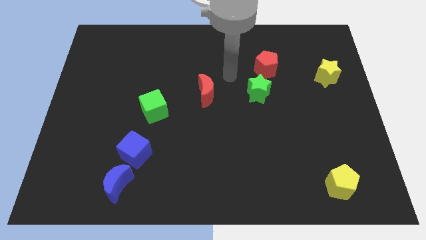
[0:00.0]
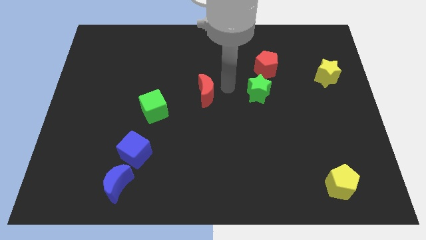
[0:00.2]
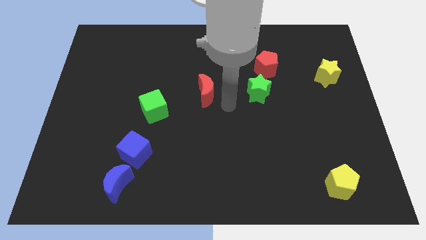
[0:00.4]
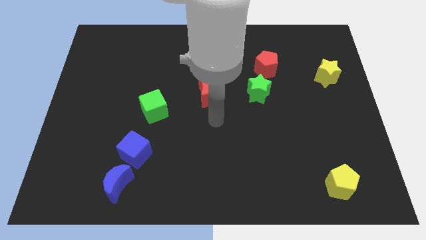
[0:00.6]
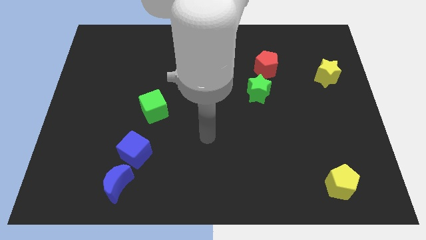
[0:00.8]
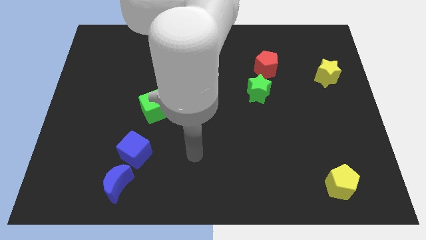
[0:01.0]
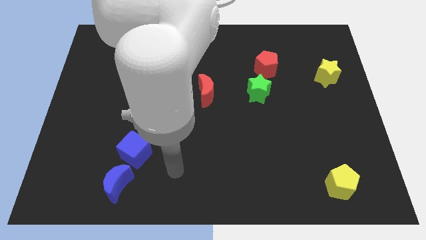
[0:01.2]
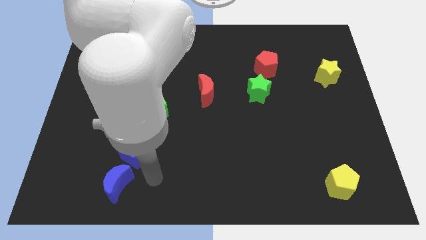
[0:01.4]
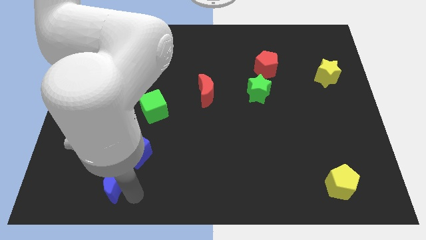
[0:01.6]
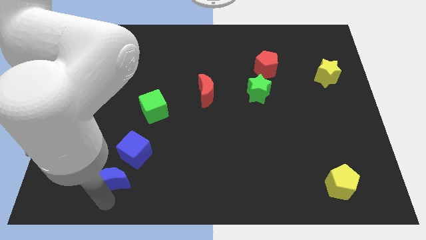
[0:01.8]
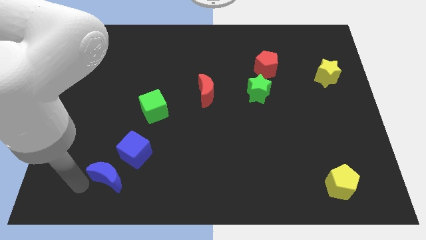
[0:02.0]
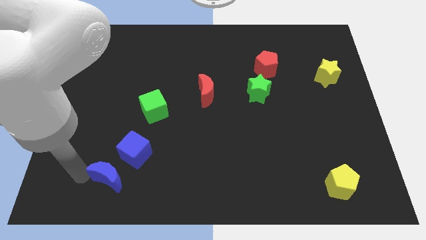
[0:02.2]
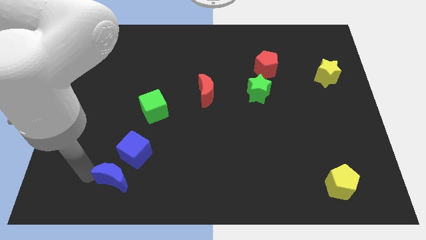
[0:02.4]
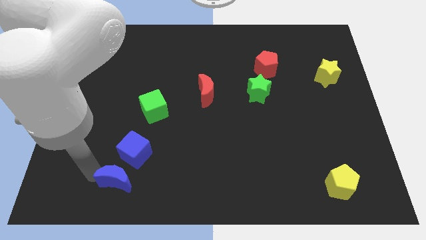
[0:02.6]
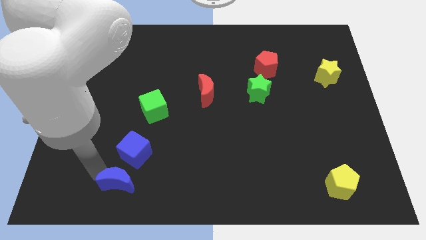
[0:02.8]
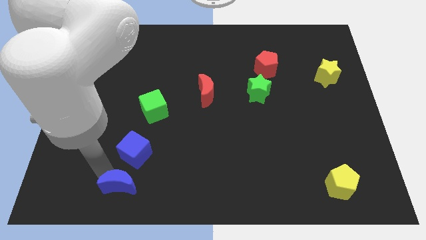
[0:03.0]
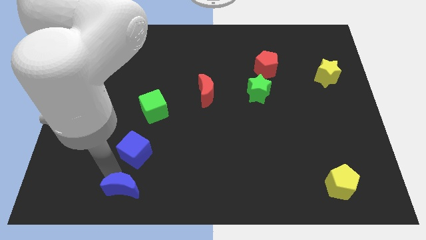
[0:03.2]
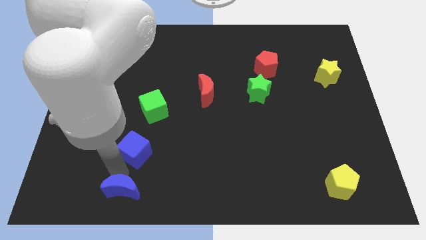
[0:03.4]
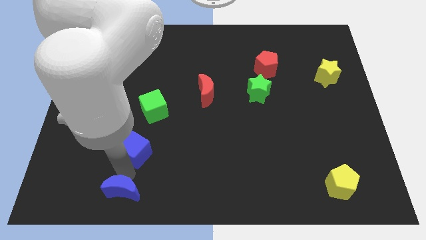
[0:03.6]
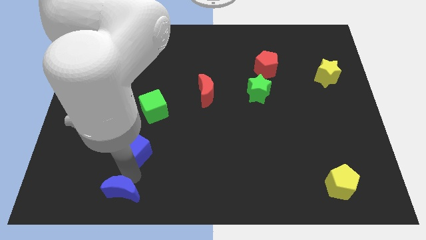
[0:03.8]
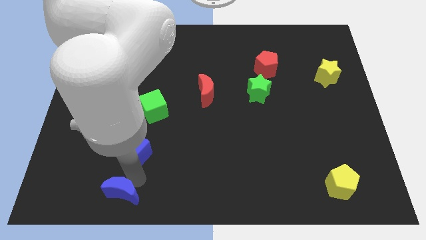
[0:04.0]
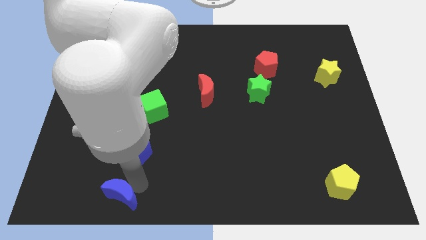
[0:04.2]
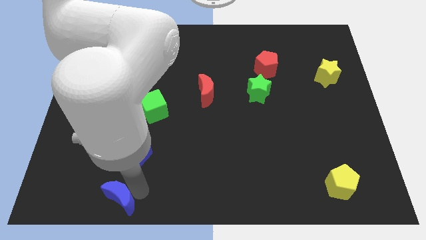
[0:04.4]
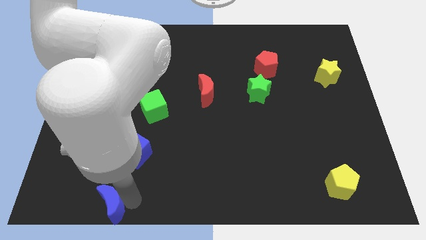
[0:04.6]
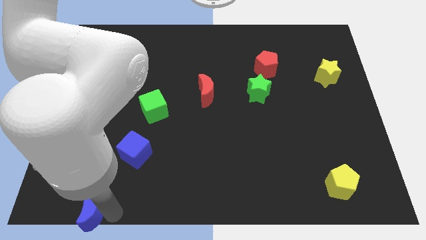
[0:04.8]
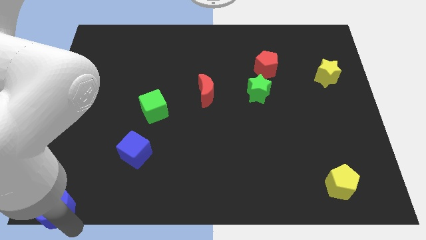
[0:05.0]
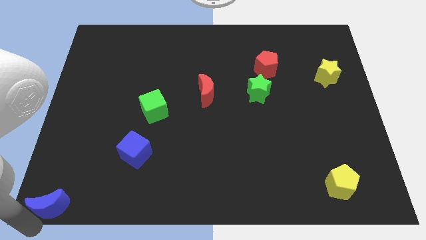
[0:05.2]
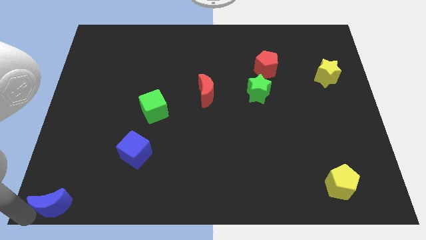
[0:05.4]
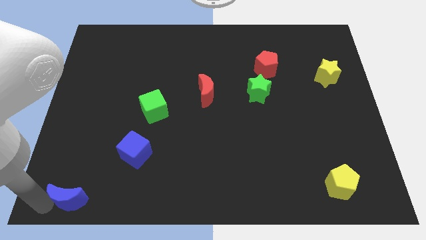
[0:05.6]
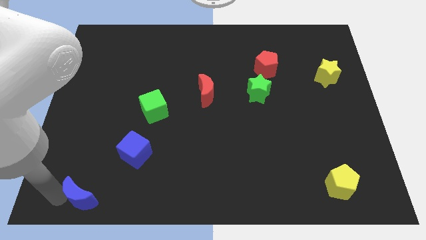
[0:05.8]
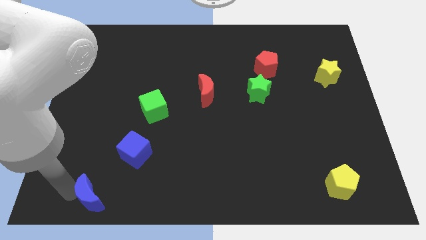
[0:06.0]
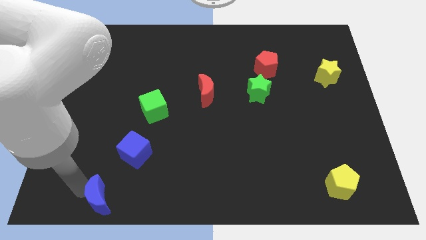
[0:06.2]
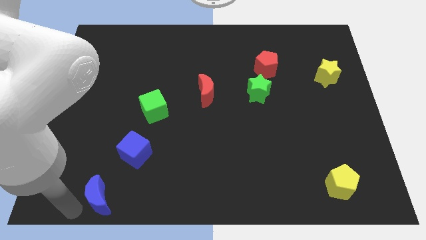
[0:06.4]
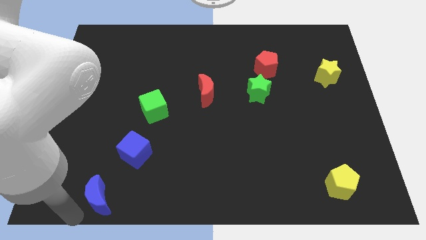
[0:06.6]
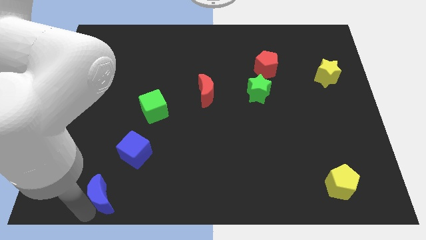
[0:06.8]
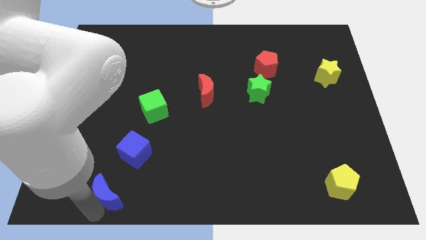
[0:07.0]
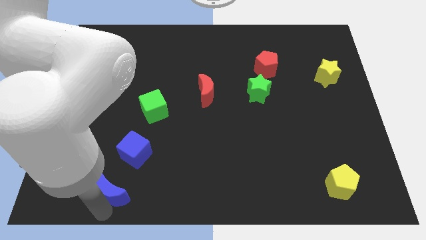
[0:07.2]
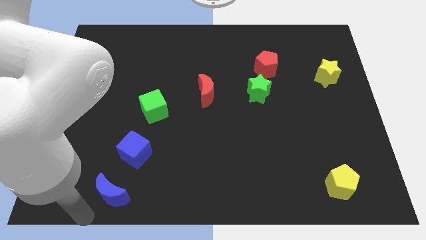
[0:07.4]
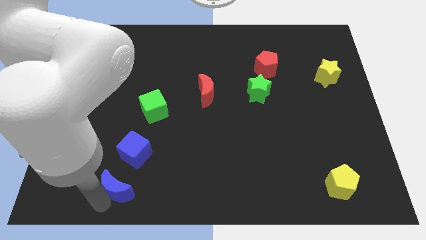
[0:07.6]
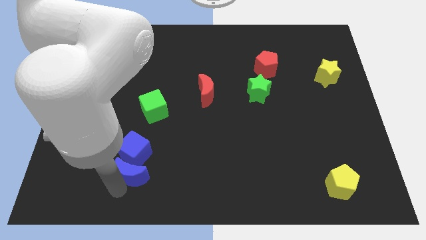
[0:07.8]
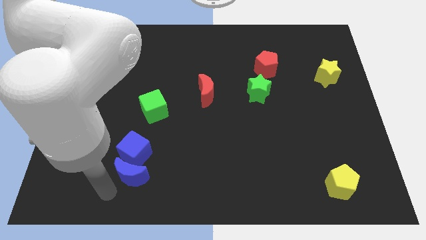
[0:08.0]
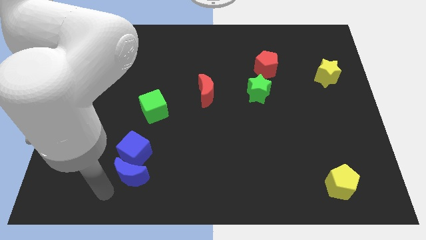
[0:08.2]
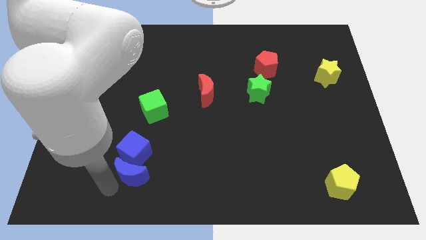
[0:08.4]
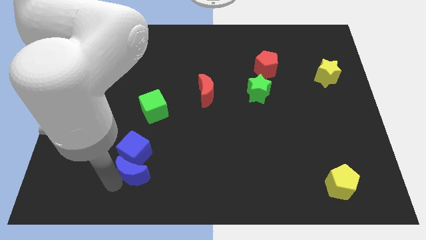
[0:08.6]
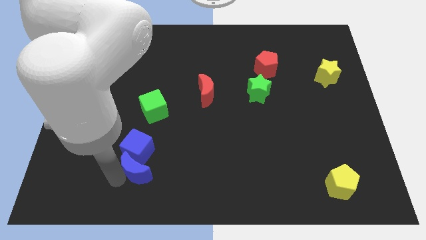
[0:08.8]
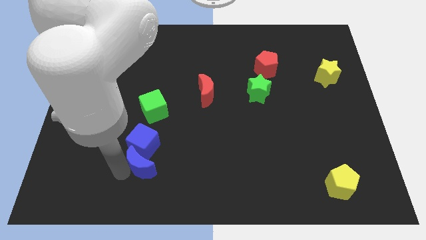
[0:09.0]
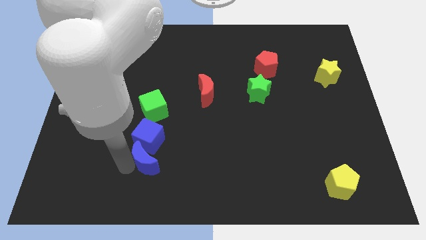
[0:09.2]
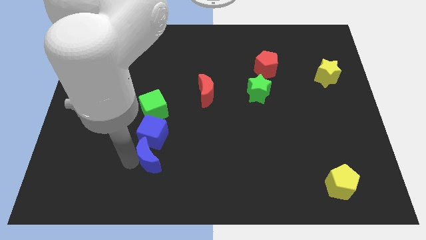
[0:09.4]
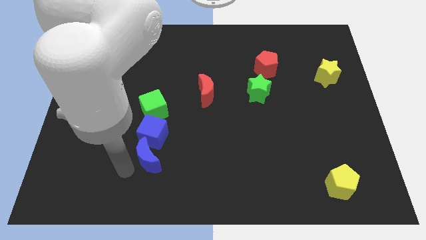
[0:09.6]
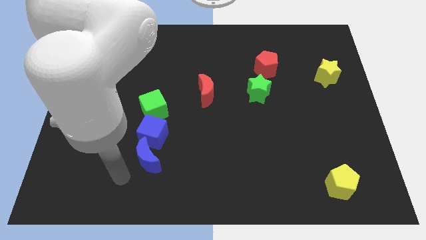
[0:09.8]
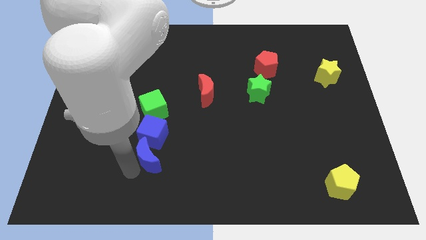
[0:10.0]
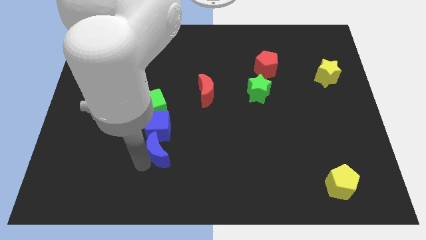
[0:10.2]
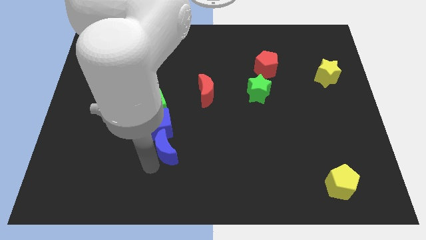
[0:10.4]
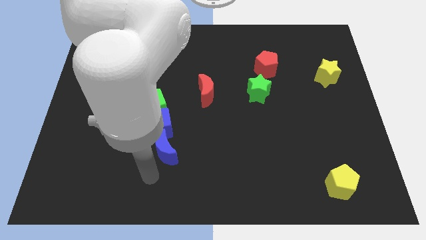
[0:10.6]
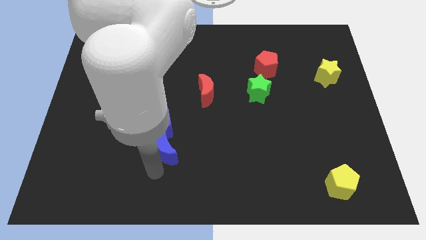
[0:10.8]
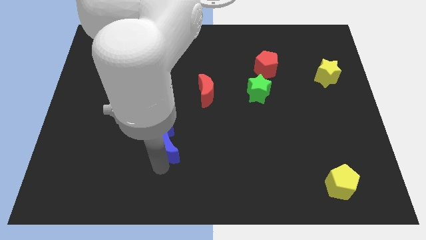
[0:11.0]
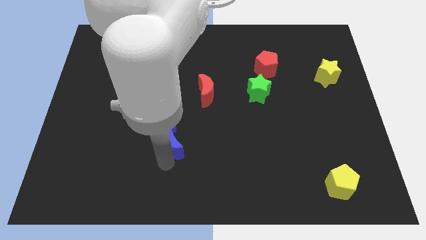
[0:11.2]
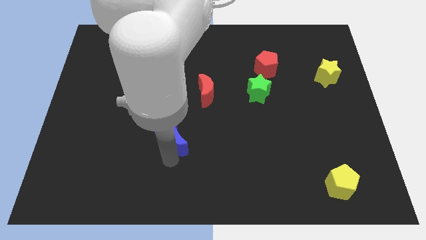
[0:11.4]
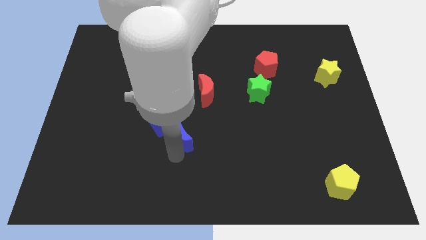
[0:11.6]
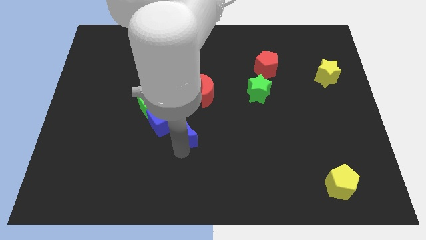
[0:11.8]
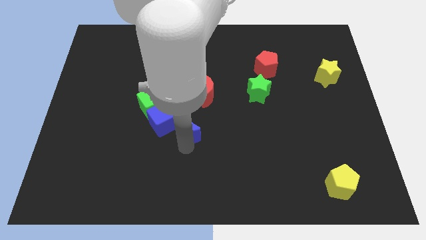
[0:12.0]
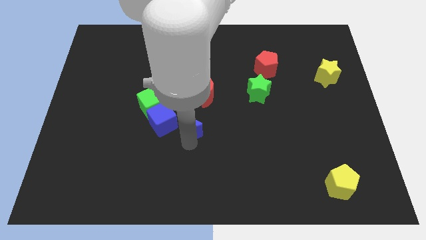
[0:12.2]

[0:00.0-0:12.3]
slide the blue moon upwards and right diagonally

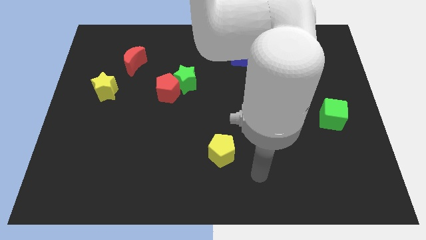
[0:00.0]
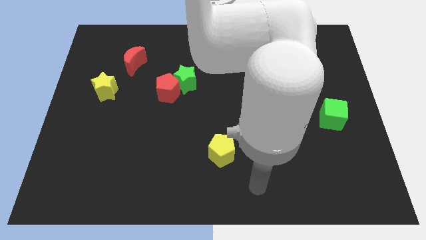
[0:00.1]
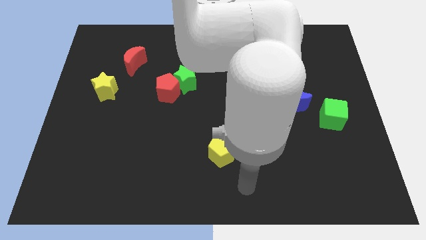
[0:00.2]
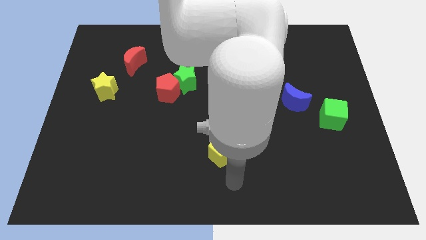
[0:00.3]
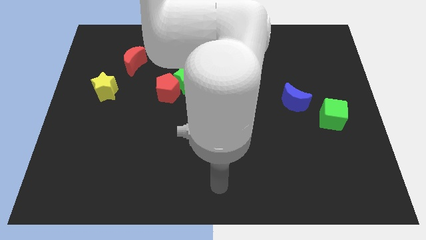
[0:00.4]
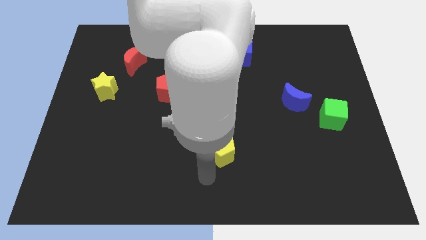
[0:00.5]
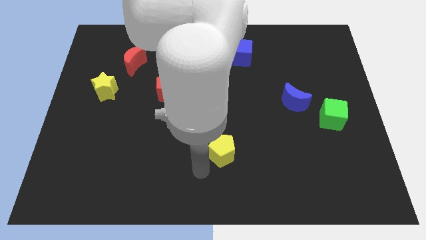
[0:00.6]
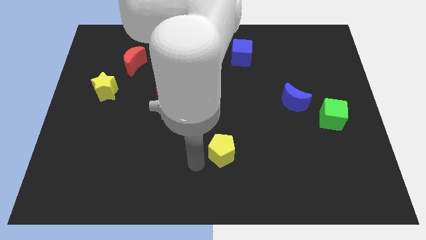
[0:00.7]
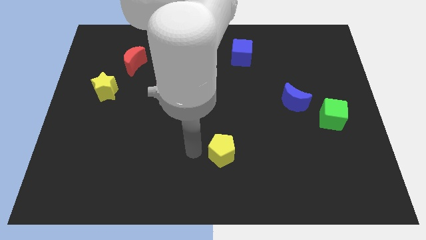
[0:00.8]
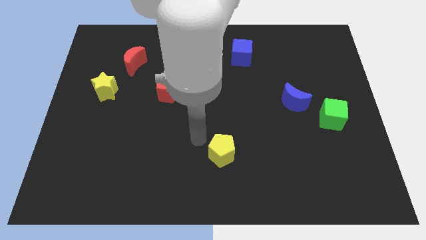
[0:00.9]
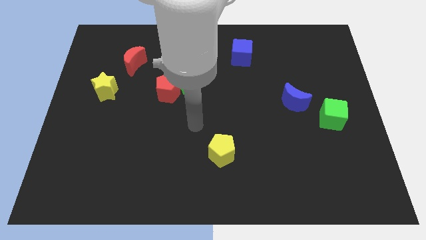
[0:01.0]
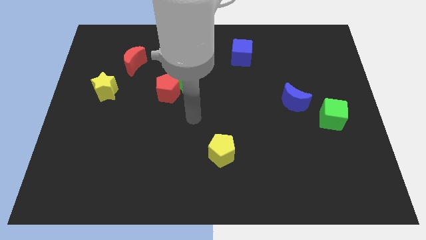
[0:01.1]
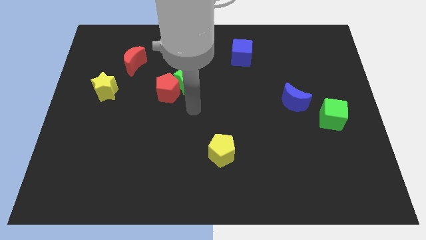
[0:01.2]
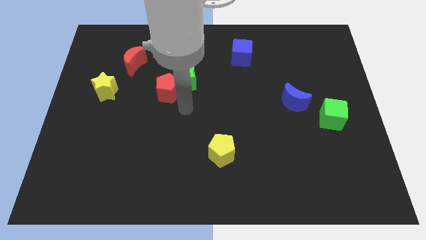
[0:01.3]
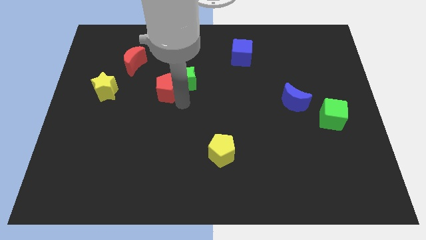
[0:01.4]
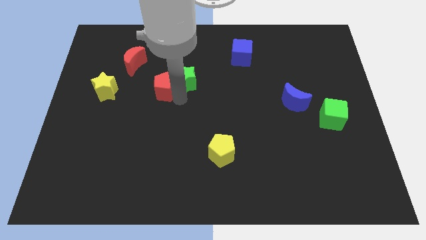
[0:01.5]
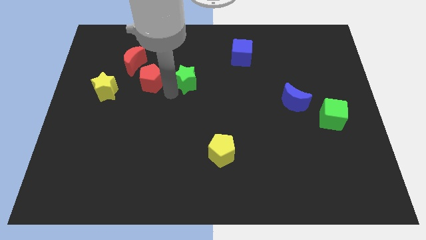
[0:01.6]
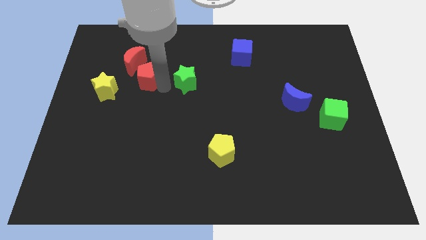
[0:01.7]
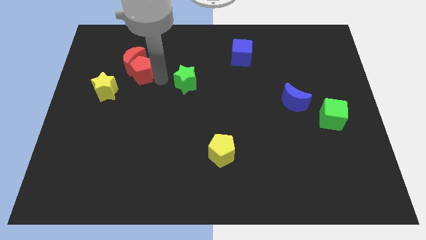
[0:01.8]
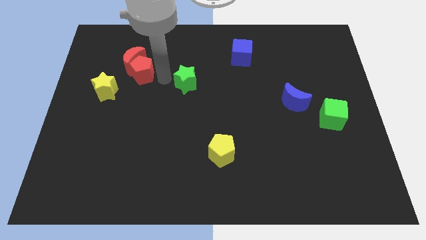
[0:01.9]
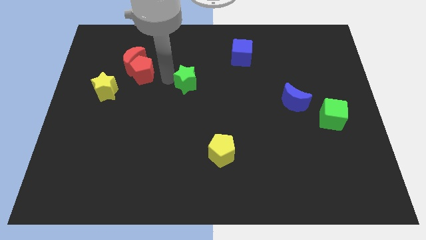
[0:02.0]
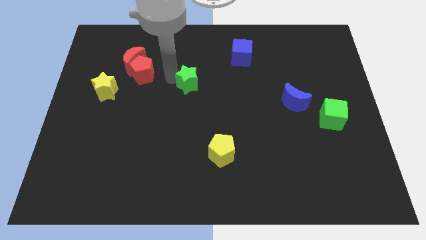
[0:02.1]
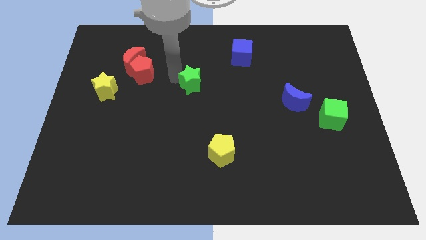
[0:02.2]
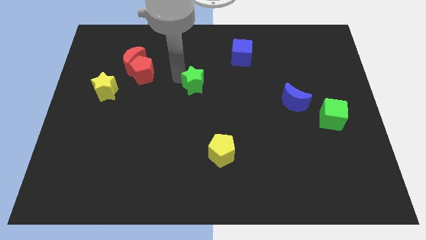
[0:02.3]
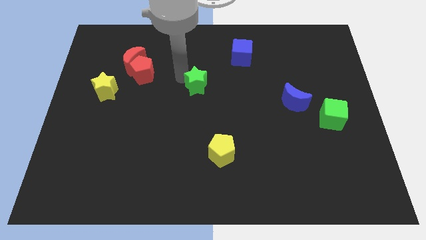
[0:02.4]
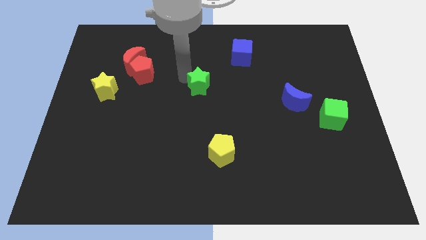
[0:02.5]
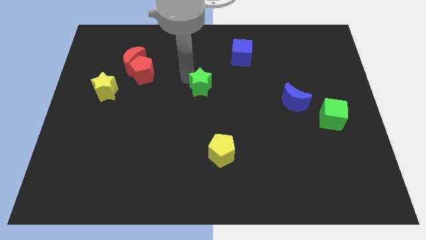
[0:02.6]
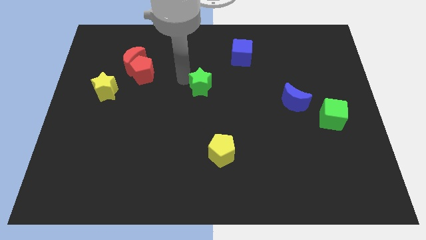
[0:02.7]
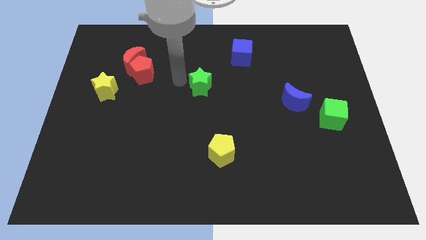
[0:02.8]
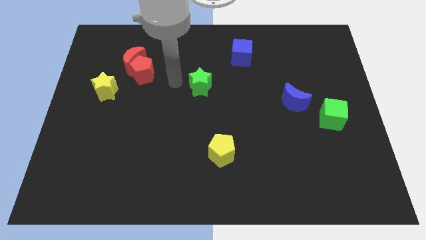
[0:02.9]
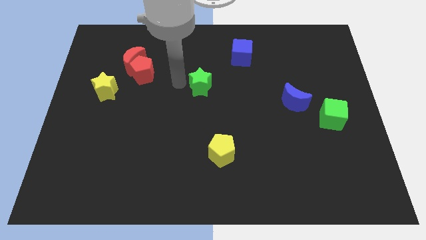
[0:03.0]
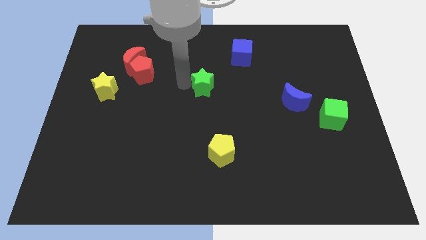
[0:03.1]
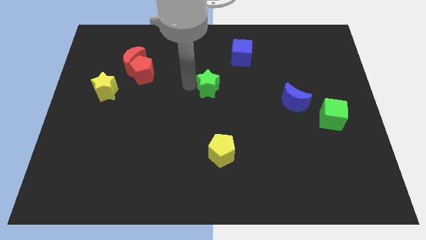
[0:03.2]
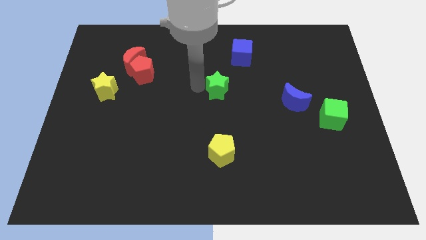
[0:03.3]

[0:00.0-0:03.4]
slide the green star a bit to the right
